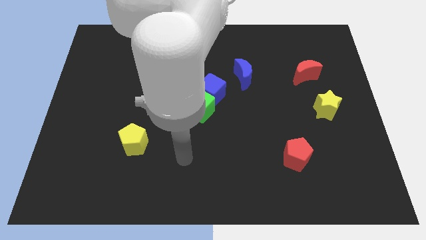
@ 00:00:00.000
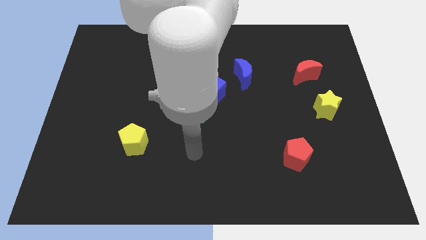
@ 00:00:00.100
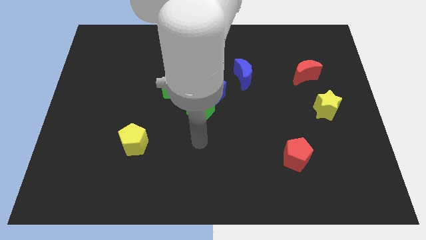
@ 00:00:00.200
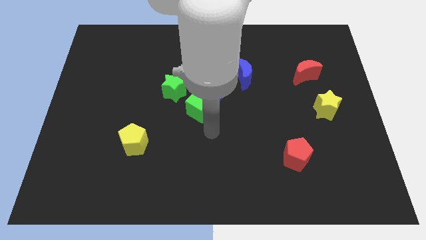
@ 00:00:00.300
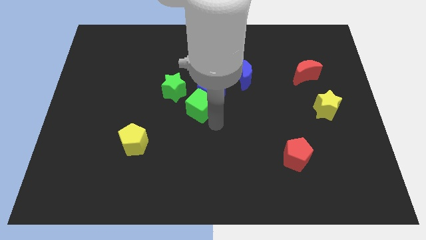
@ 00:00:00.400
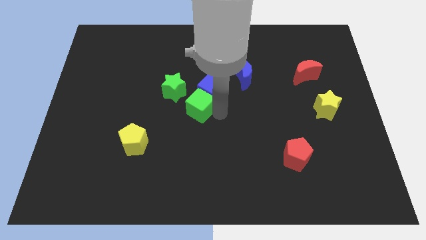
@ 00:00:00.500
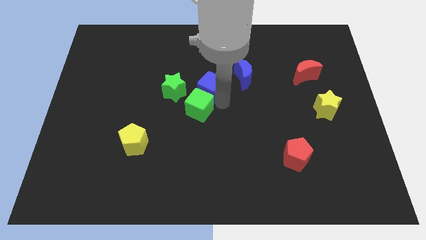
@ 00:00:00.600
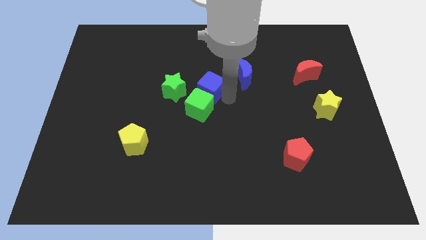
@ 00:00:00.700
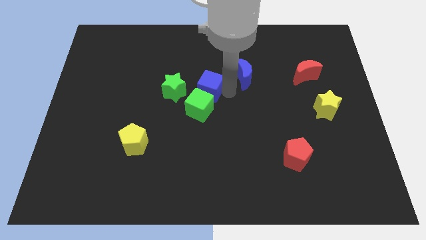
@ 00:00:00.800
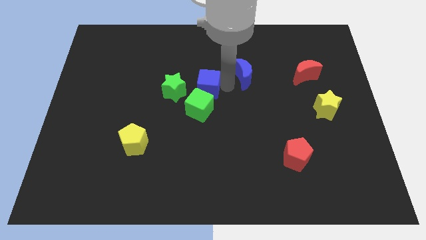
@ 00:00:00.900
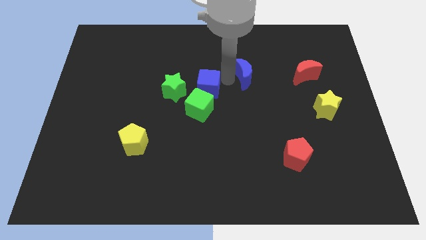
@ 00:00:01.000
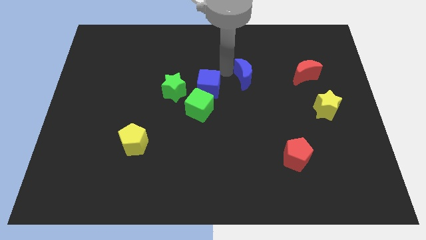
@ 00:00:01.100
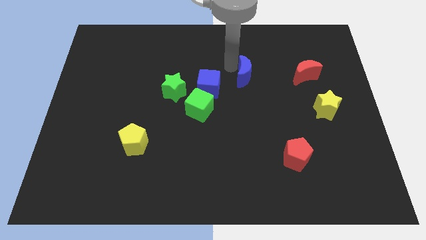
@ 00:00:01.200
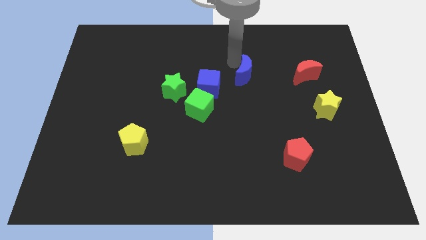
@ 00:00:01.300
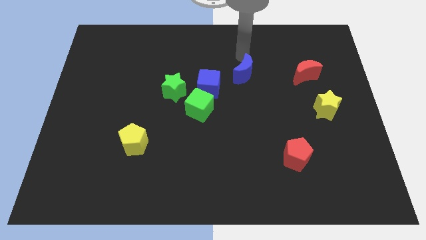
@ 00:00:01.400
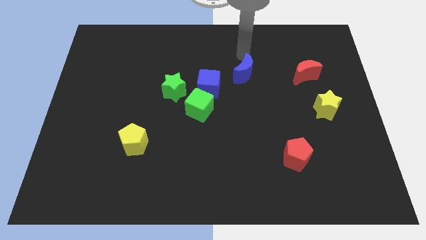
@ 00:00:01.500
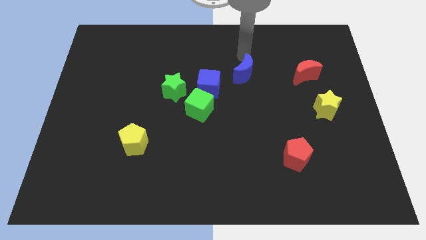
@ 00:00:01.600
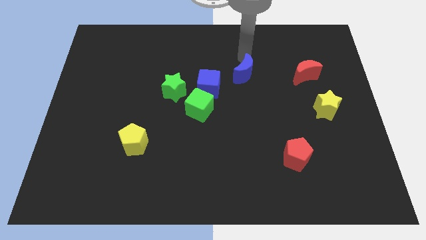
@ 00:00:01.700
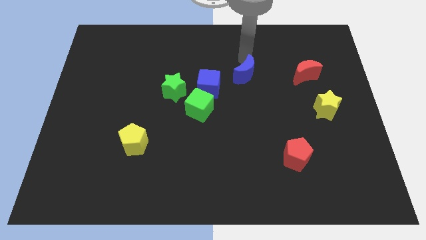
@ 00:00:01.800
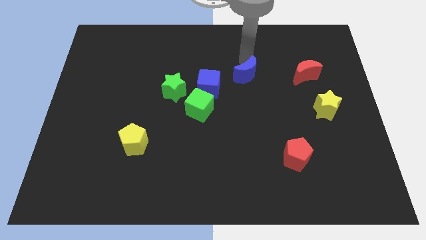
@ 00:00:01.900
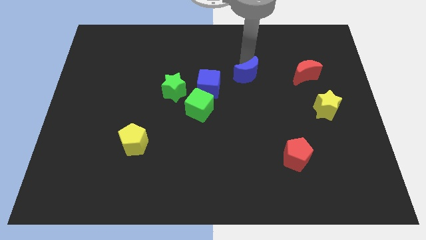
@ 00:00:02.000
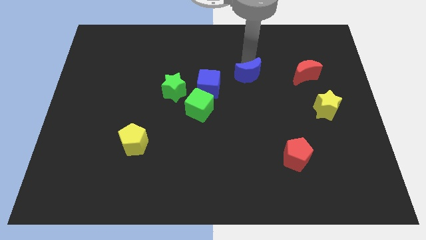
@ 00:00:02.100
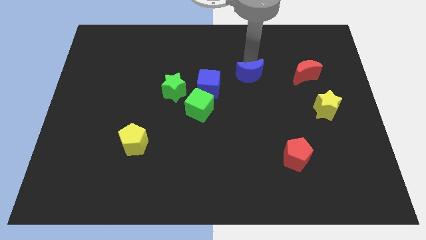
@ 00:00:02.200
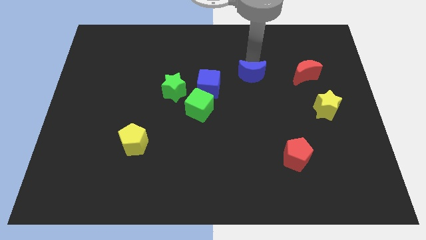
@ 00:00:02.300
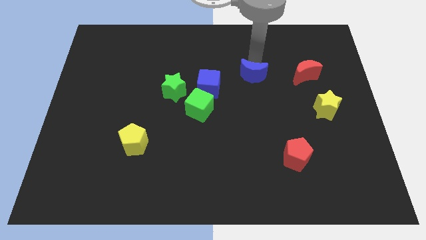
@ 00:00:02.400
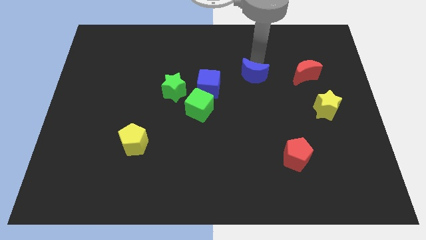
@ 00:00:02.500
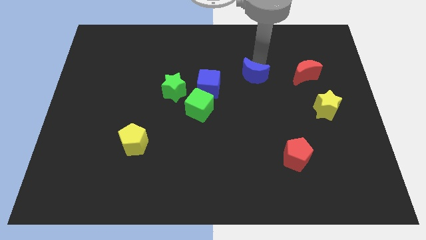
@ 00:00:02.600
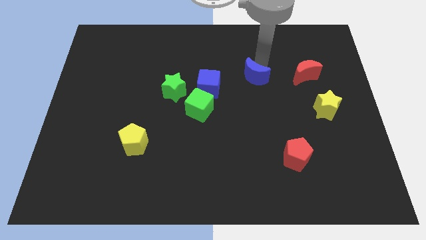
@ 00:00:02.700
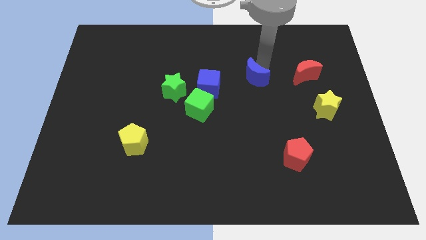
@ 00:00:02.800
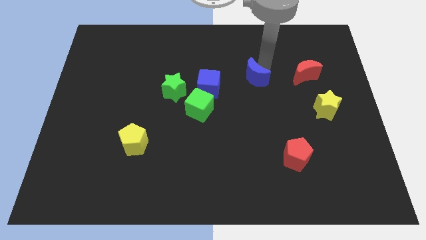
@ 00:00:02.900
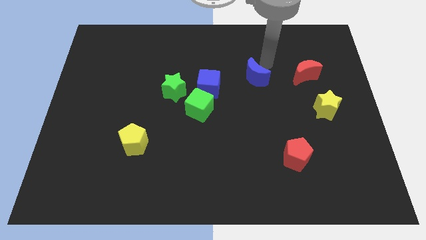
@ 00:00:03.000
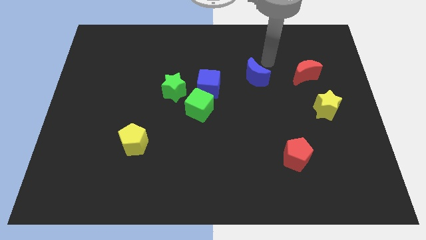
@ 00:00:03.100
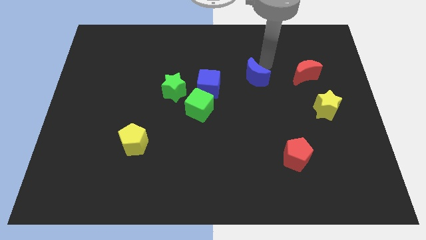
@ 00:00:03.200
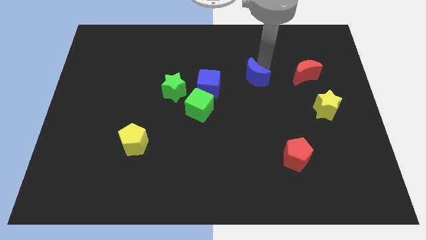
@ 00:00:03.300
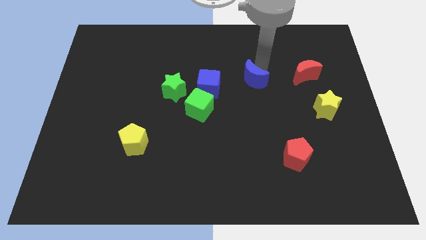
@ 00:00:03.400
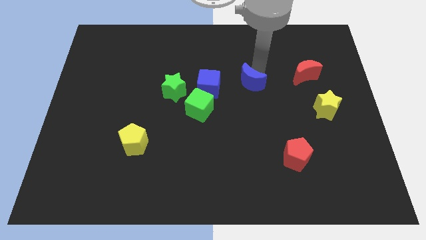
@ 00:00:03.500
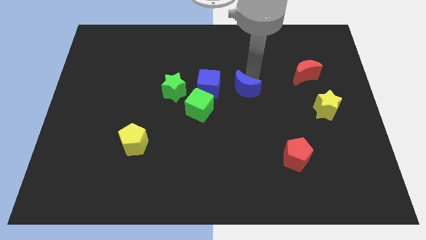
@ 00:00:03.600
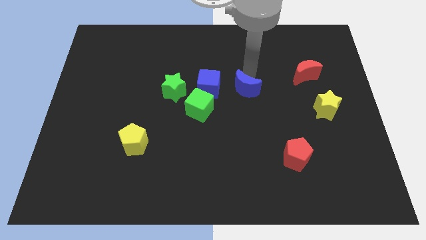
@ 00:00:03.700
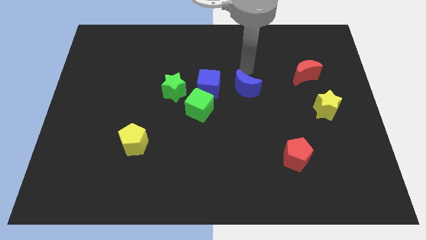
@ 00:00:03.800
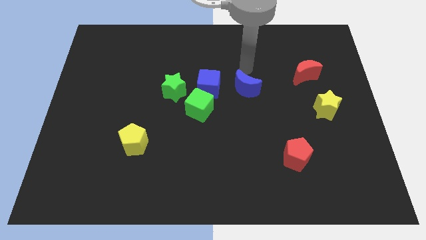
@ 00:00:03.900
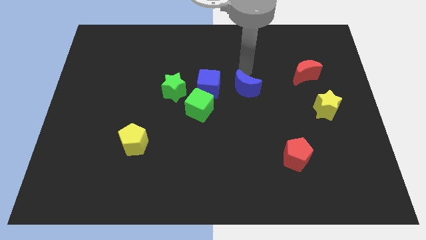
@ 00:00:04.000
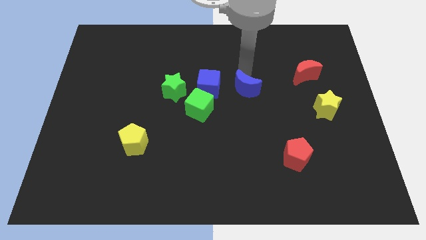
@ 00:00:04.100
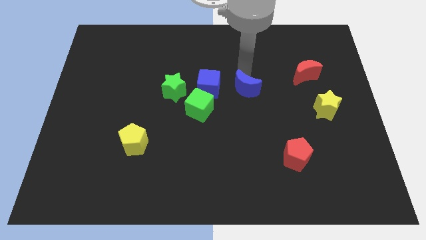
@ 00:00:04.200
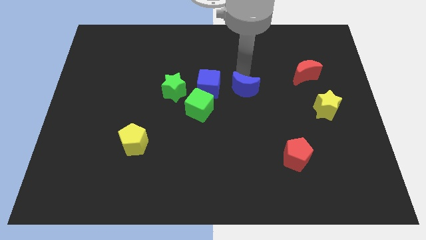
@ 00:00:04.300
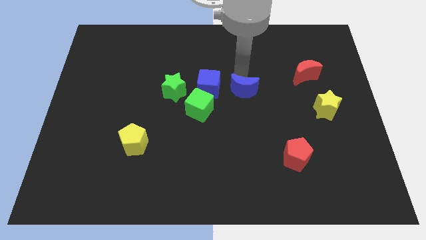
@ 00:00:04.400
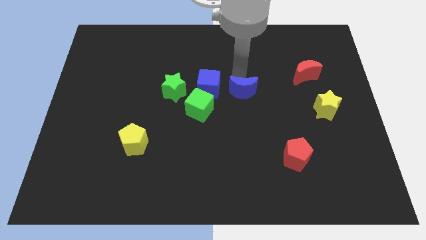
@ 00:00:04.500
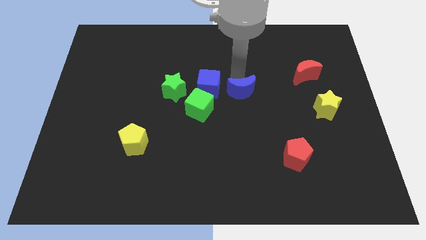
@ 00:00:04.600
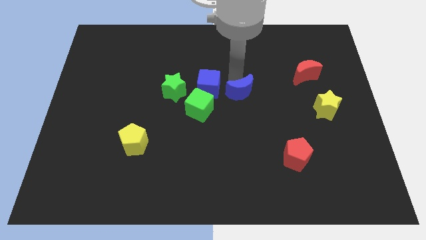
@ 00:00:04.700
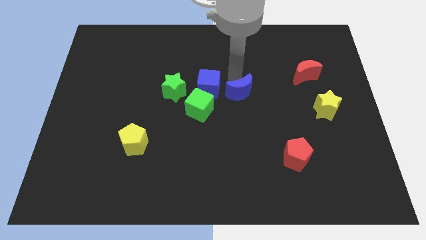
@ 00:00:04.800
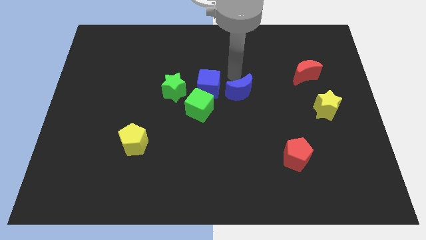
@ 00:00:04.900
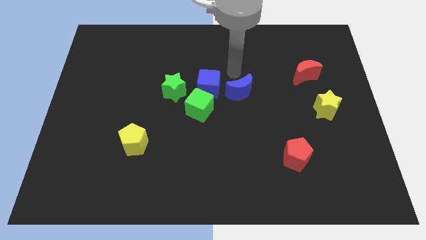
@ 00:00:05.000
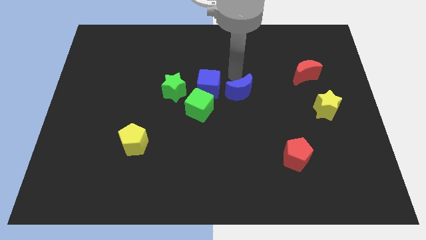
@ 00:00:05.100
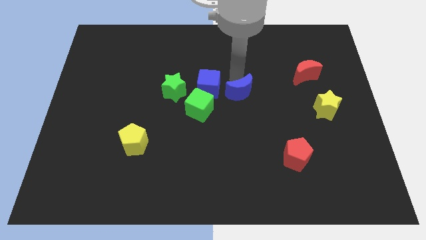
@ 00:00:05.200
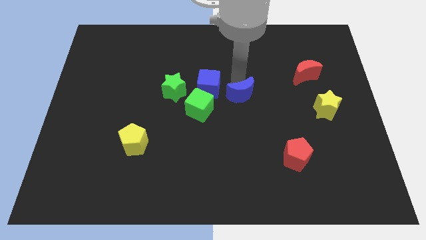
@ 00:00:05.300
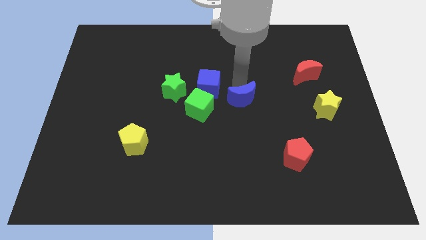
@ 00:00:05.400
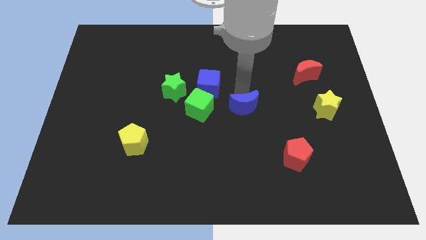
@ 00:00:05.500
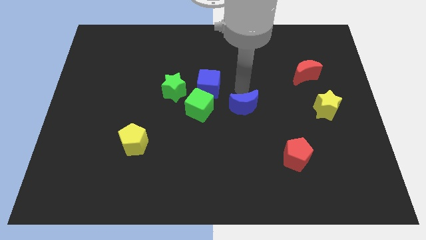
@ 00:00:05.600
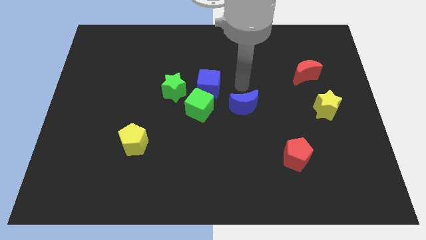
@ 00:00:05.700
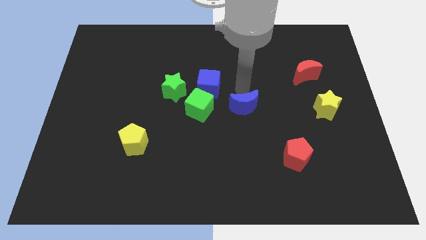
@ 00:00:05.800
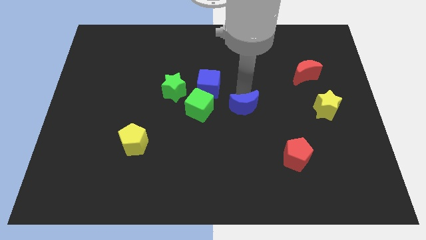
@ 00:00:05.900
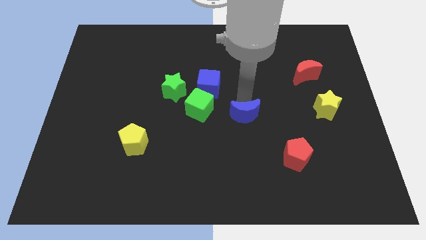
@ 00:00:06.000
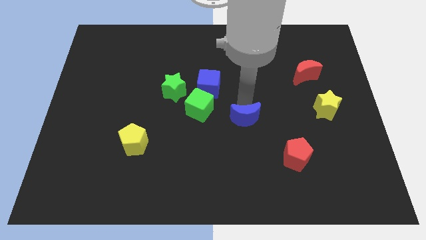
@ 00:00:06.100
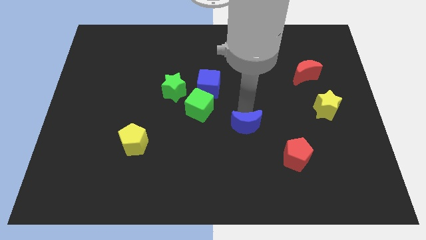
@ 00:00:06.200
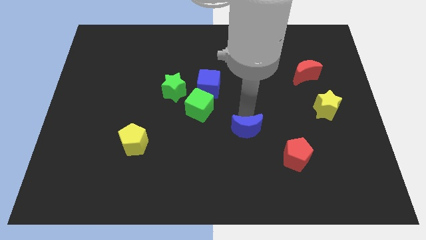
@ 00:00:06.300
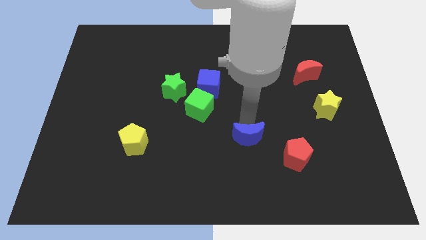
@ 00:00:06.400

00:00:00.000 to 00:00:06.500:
move the blue moon to the left side of the red pentagon
